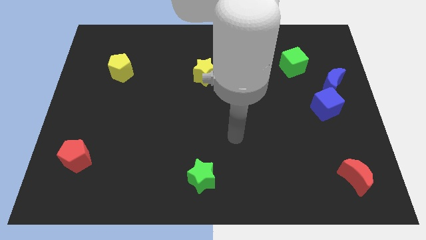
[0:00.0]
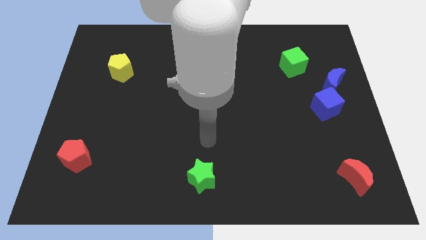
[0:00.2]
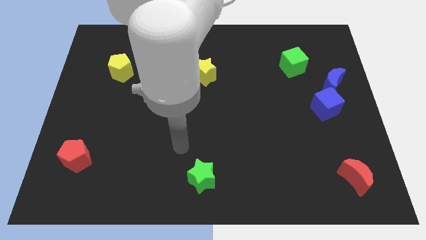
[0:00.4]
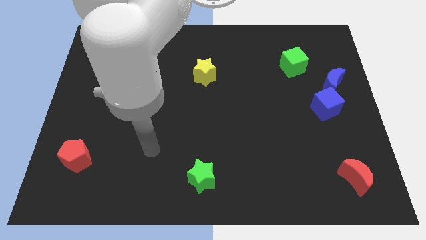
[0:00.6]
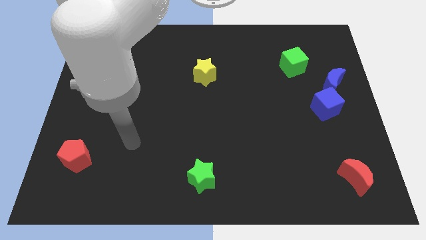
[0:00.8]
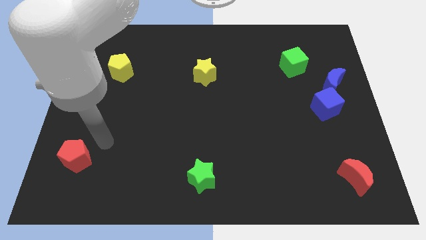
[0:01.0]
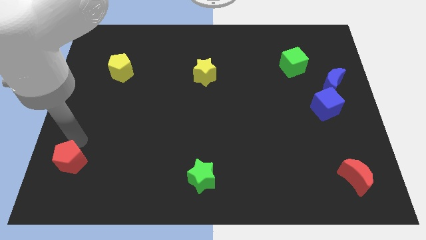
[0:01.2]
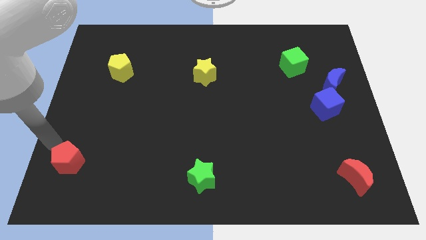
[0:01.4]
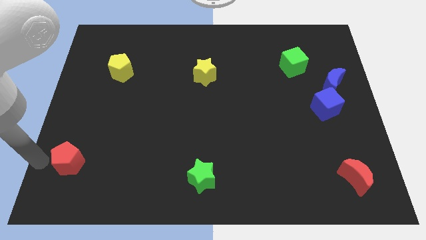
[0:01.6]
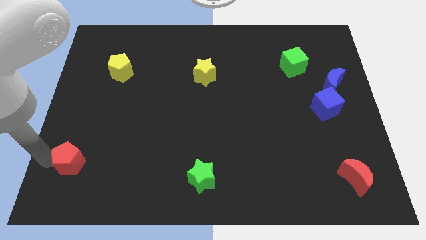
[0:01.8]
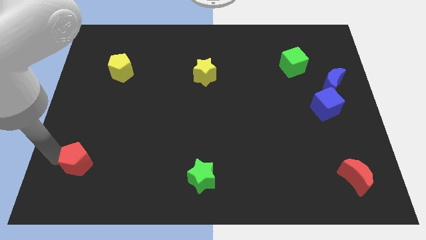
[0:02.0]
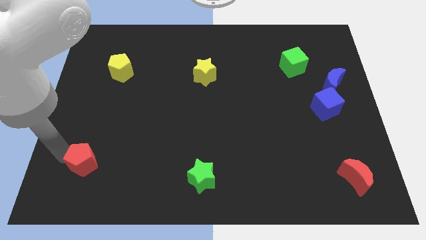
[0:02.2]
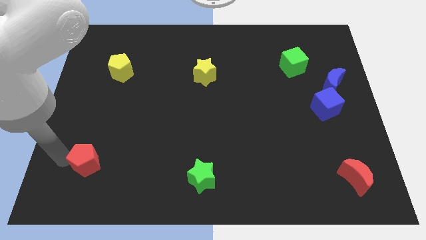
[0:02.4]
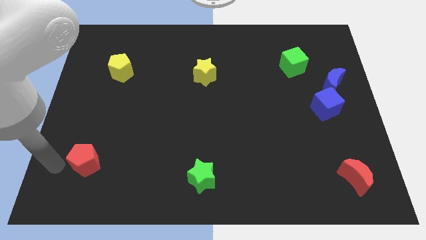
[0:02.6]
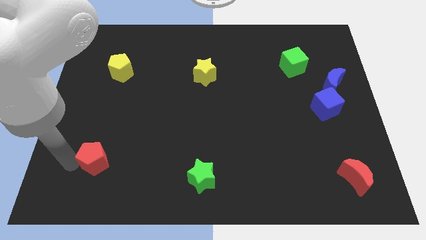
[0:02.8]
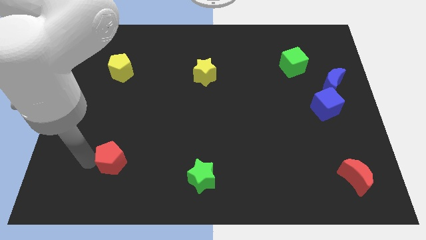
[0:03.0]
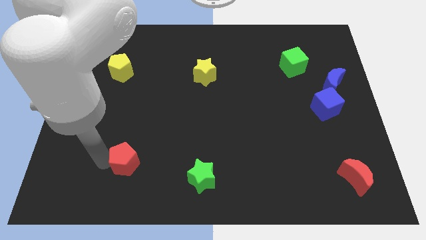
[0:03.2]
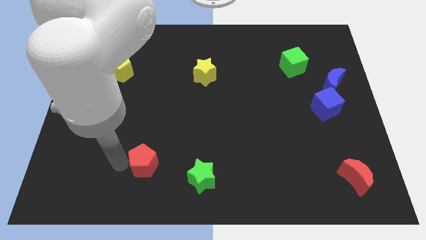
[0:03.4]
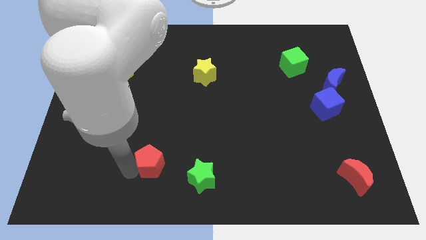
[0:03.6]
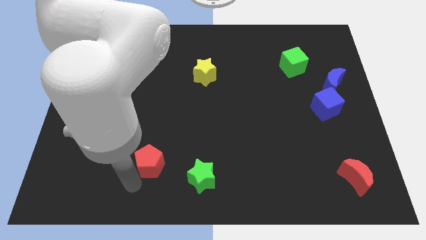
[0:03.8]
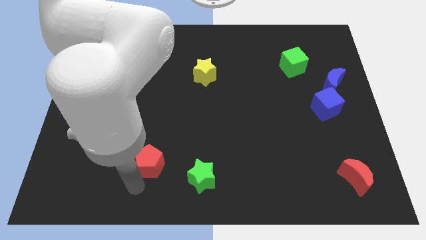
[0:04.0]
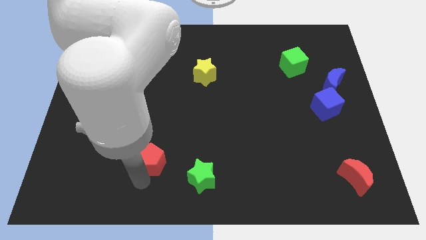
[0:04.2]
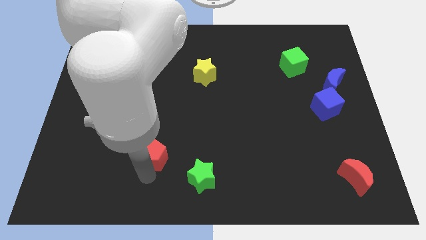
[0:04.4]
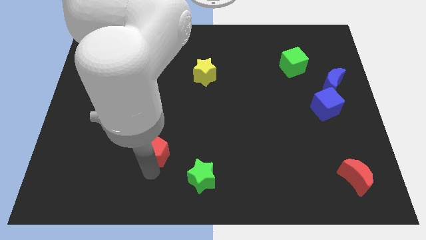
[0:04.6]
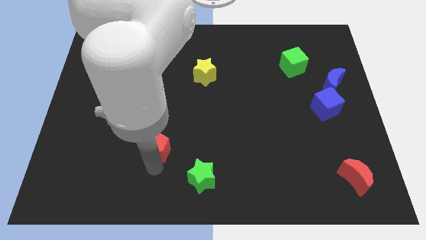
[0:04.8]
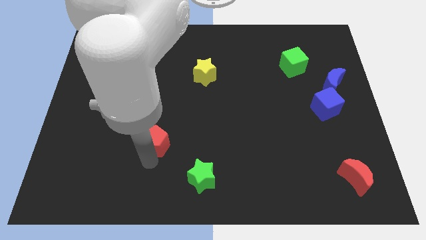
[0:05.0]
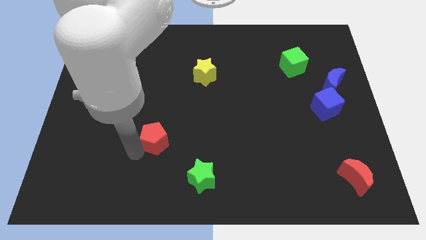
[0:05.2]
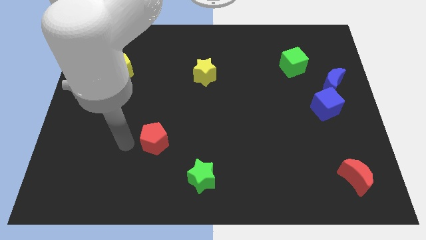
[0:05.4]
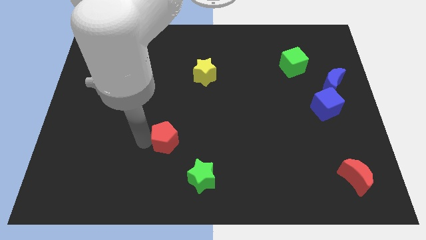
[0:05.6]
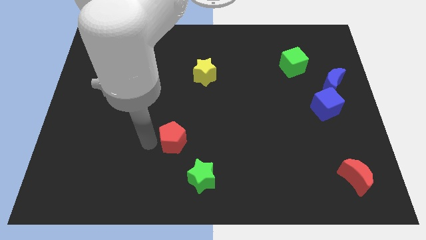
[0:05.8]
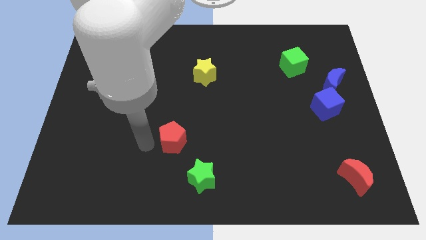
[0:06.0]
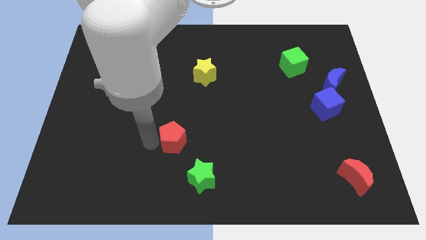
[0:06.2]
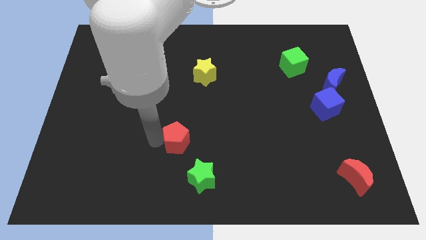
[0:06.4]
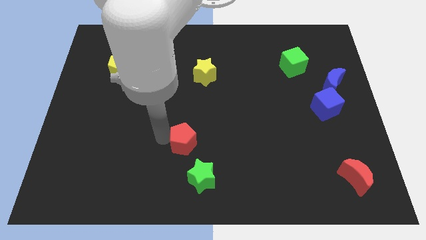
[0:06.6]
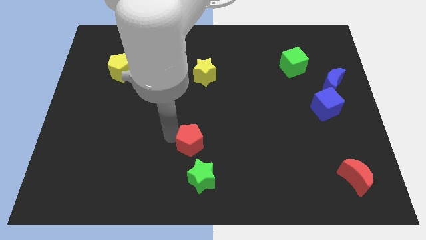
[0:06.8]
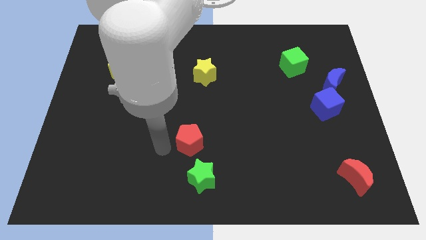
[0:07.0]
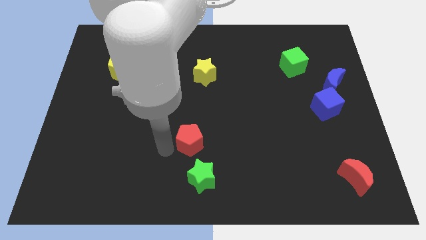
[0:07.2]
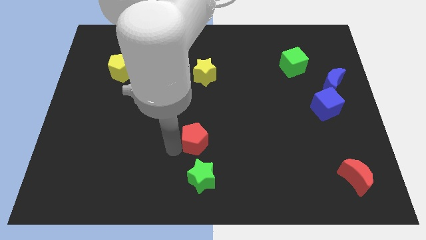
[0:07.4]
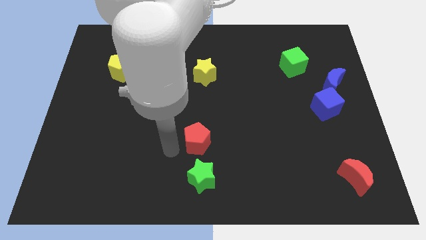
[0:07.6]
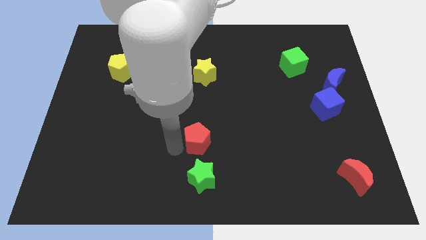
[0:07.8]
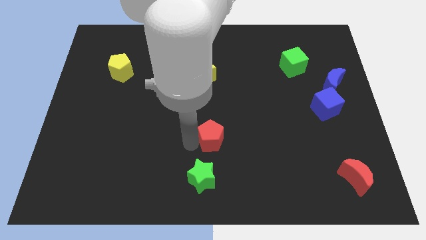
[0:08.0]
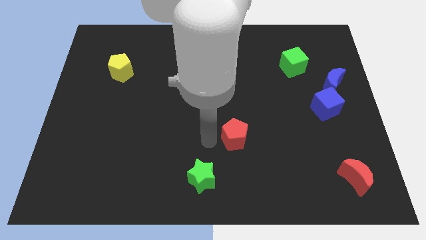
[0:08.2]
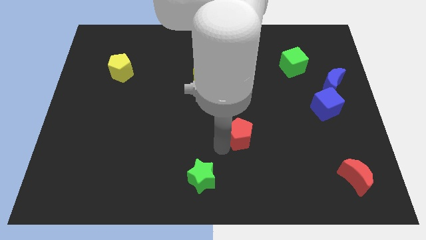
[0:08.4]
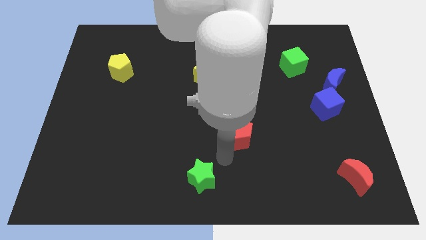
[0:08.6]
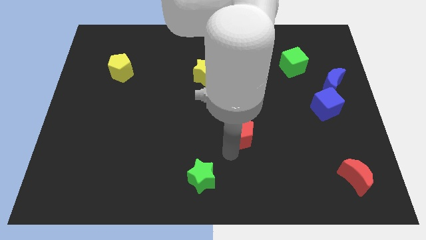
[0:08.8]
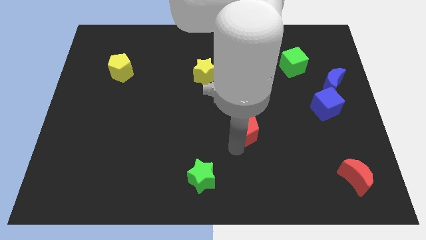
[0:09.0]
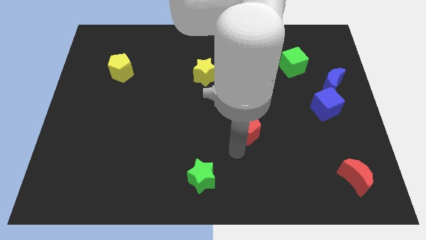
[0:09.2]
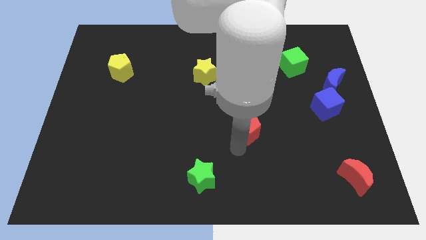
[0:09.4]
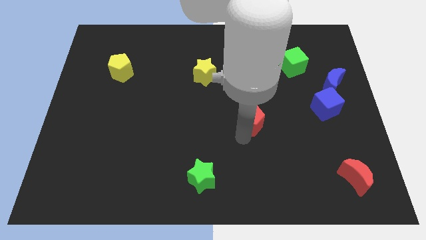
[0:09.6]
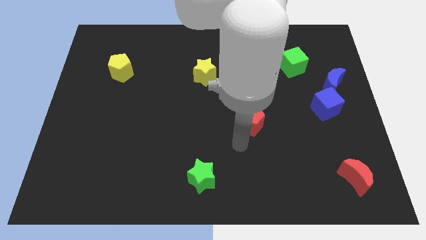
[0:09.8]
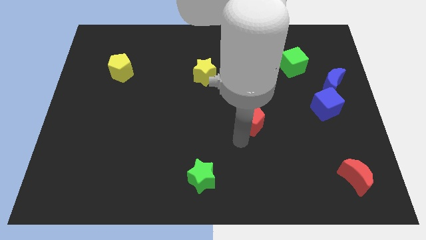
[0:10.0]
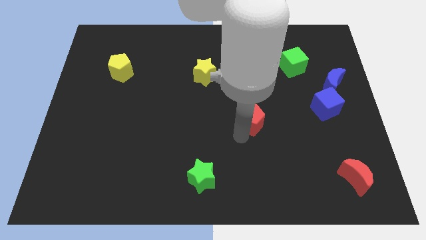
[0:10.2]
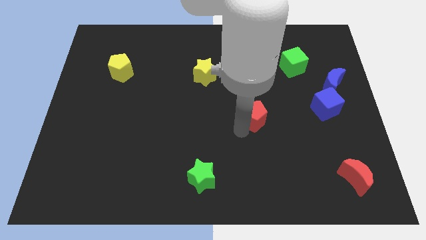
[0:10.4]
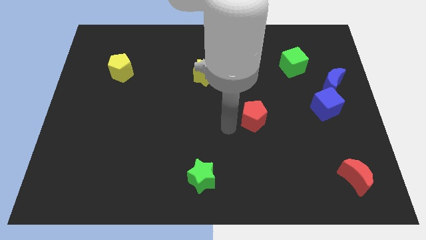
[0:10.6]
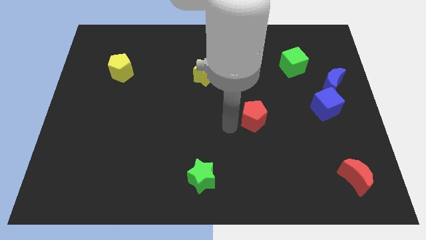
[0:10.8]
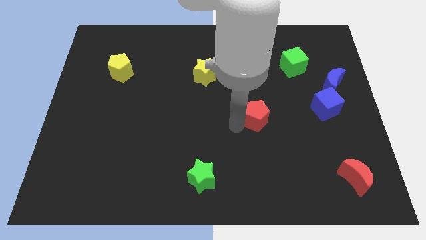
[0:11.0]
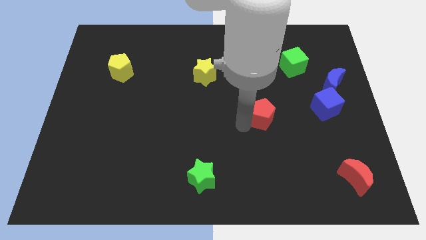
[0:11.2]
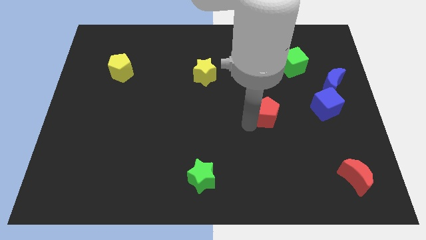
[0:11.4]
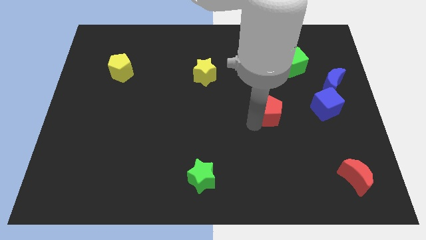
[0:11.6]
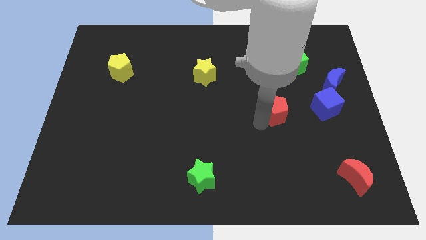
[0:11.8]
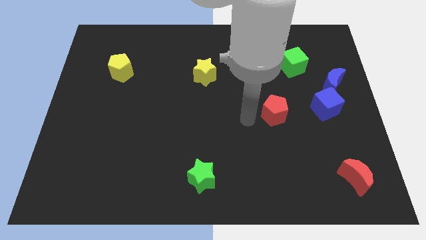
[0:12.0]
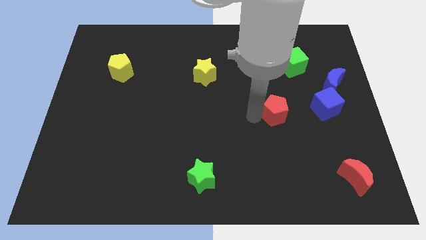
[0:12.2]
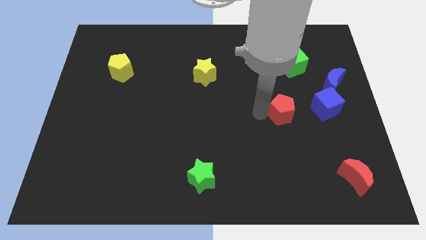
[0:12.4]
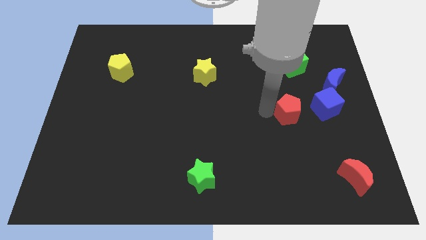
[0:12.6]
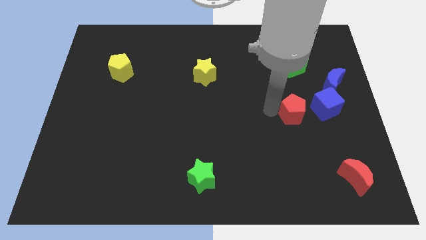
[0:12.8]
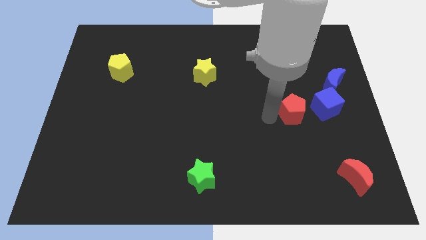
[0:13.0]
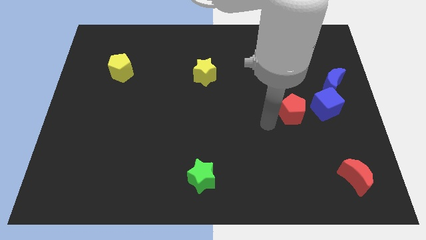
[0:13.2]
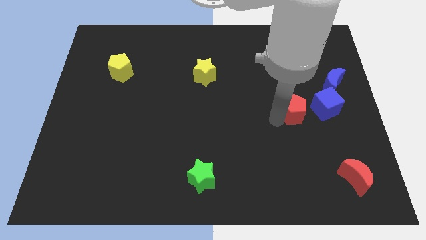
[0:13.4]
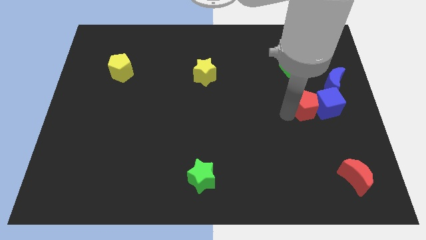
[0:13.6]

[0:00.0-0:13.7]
slide the red pentagon next to the blue cube
